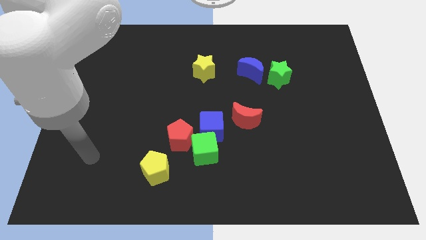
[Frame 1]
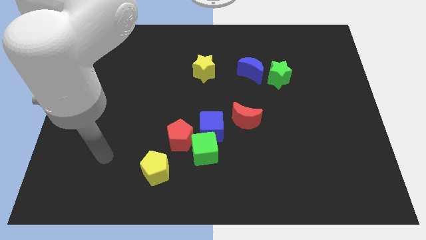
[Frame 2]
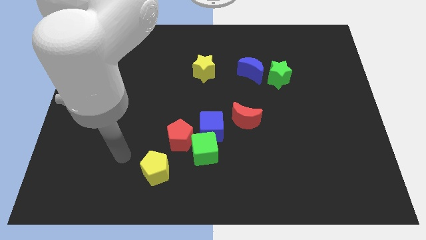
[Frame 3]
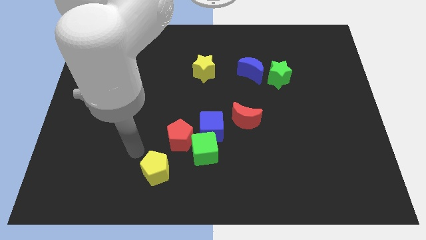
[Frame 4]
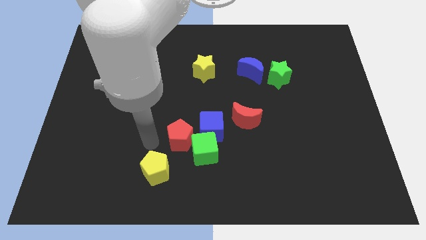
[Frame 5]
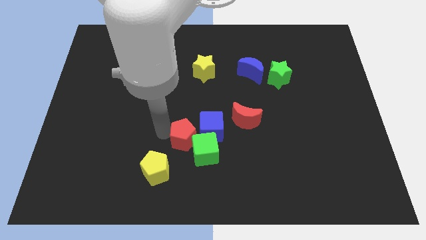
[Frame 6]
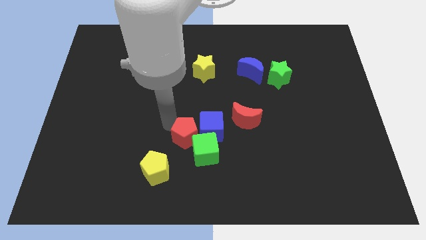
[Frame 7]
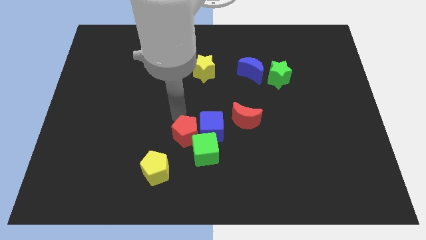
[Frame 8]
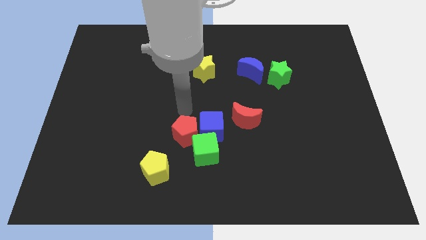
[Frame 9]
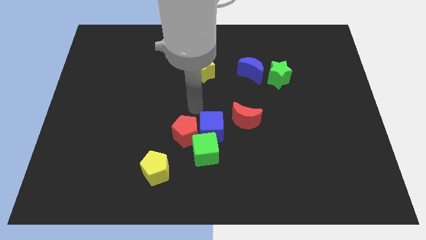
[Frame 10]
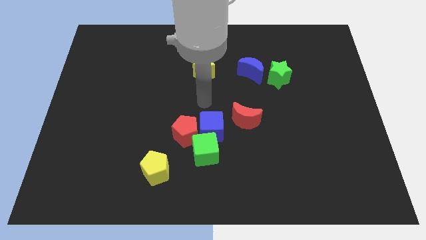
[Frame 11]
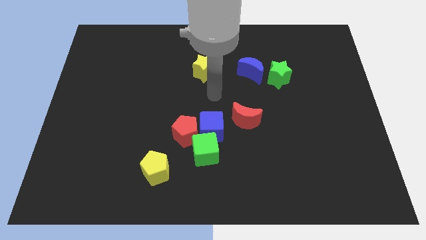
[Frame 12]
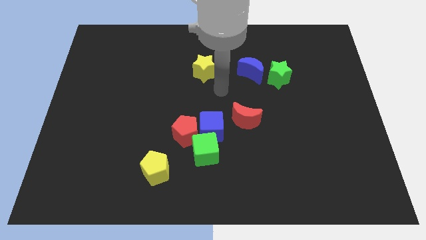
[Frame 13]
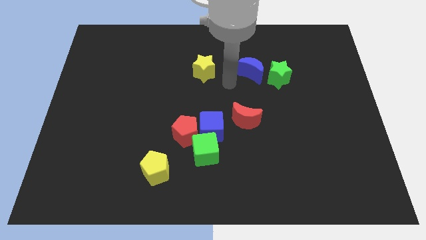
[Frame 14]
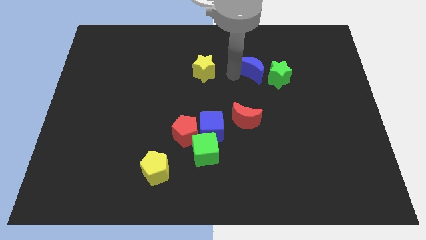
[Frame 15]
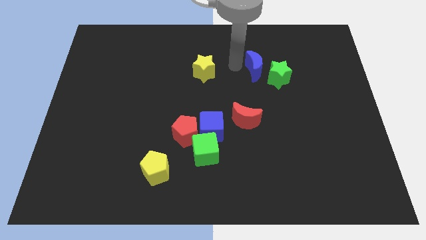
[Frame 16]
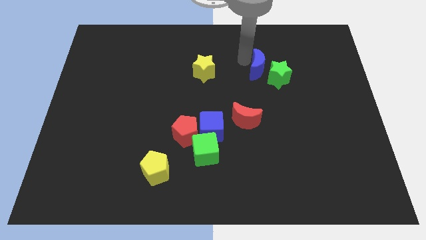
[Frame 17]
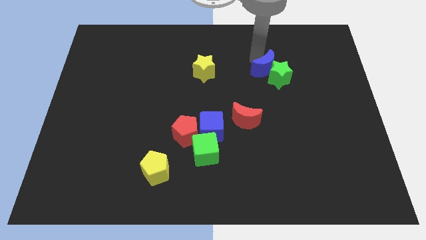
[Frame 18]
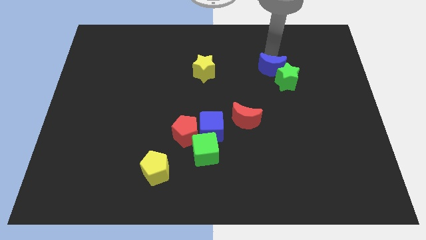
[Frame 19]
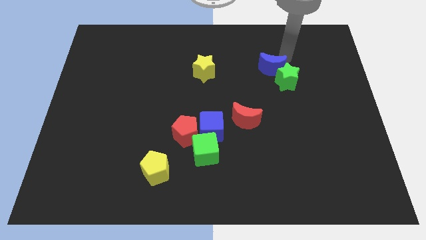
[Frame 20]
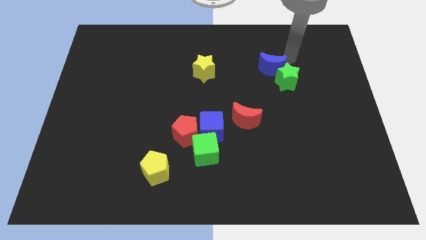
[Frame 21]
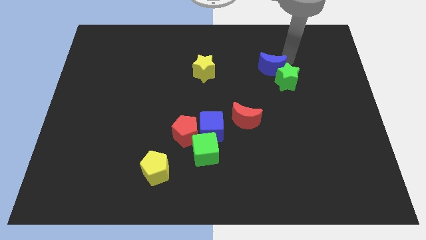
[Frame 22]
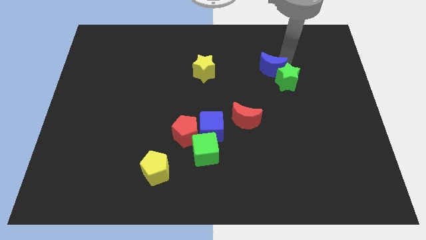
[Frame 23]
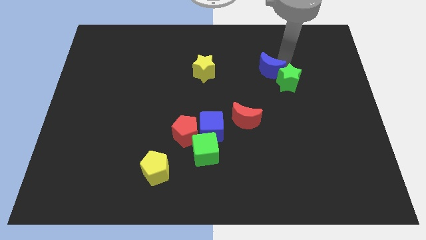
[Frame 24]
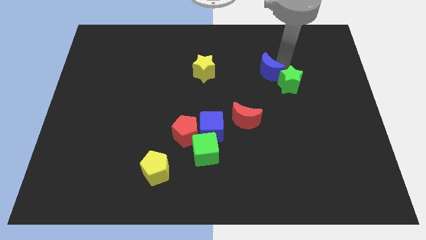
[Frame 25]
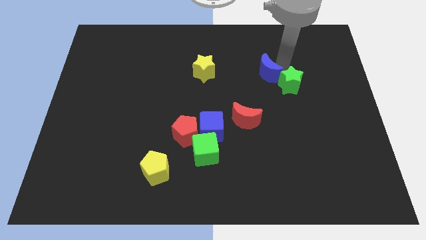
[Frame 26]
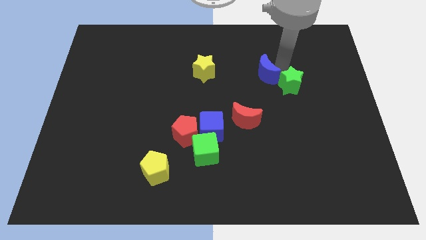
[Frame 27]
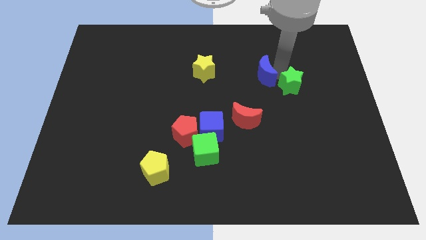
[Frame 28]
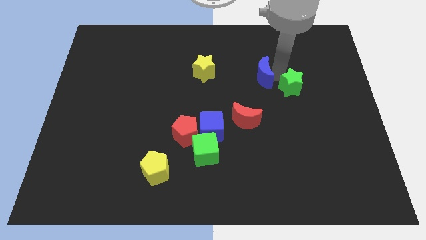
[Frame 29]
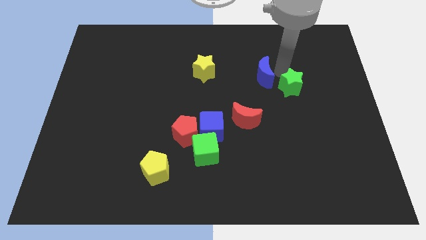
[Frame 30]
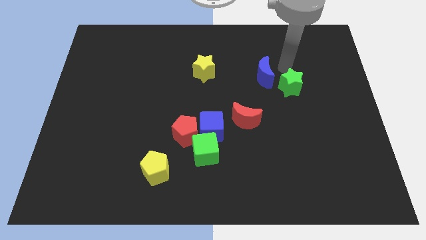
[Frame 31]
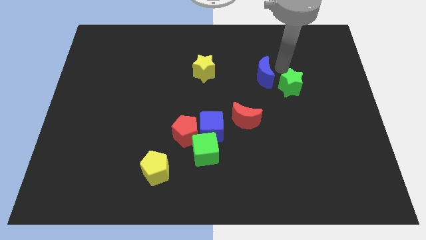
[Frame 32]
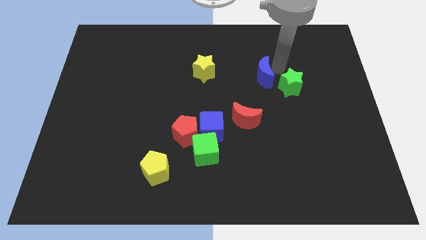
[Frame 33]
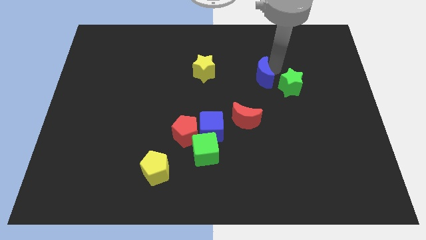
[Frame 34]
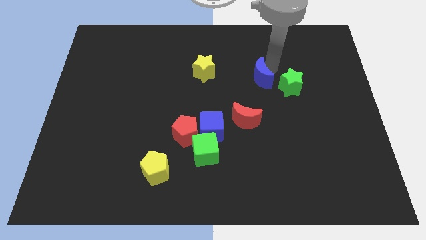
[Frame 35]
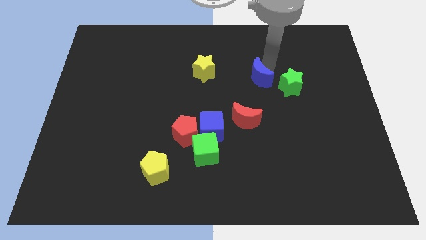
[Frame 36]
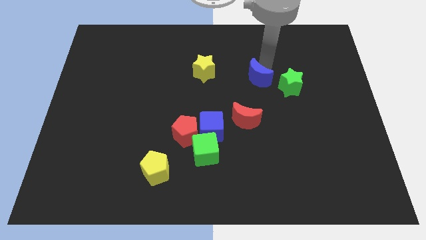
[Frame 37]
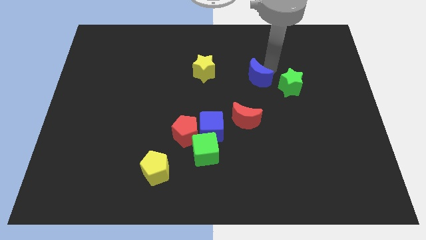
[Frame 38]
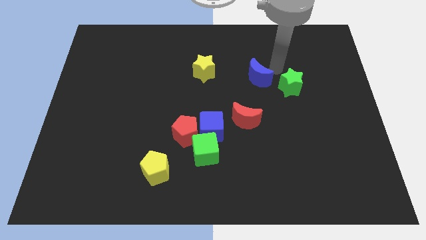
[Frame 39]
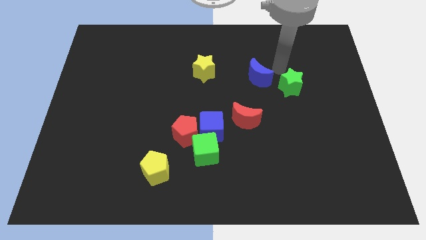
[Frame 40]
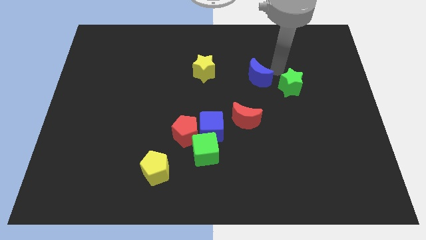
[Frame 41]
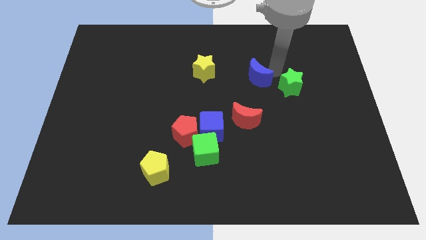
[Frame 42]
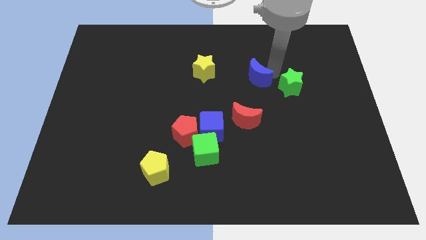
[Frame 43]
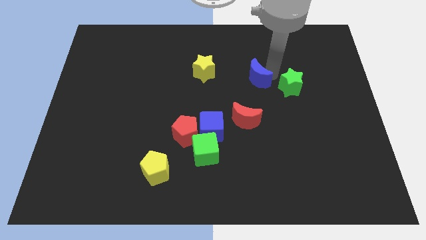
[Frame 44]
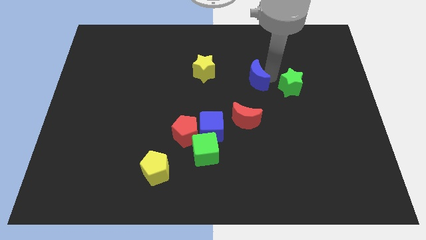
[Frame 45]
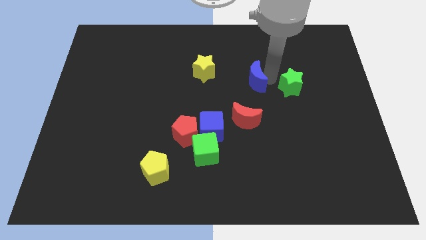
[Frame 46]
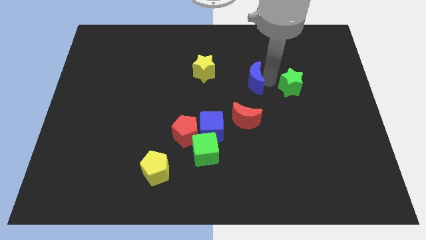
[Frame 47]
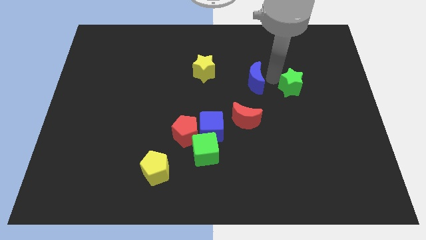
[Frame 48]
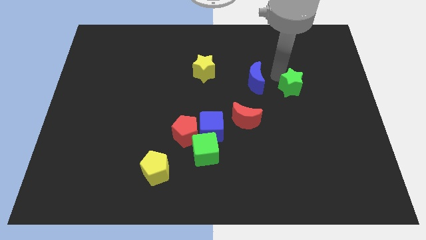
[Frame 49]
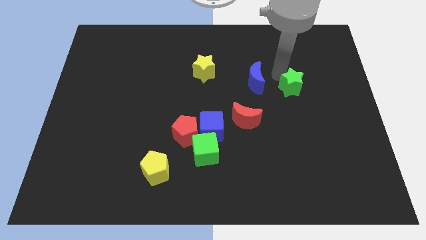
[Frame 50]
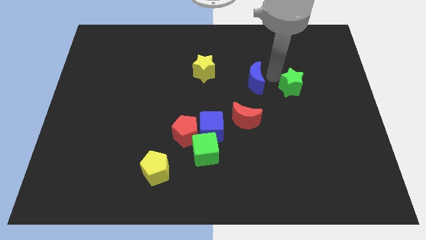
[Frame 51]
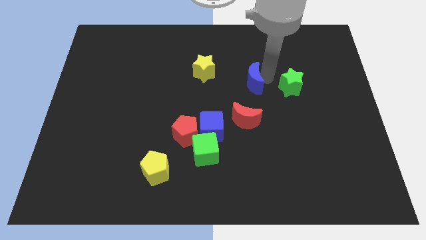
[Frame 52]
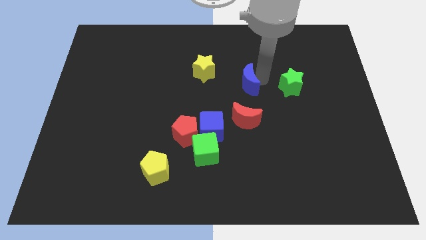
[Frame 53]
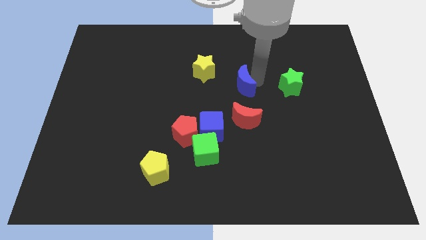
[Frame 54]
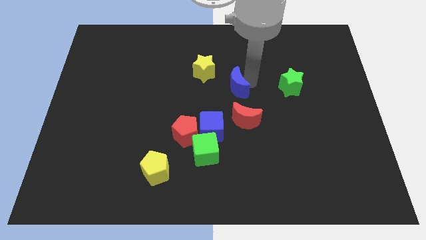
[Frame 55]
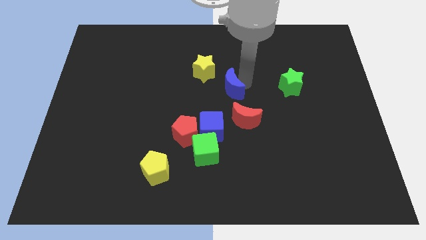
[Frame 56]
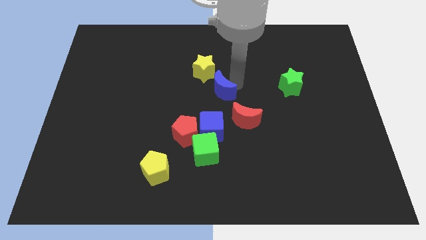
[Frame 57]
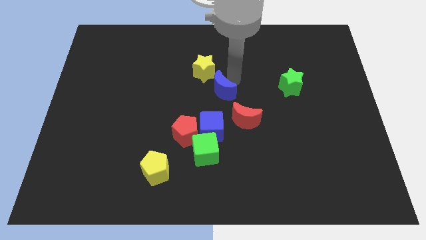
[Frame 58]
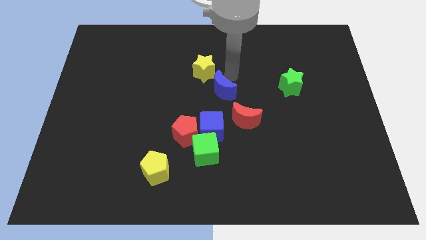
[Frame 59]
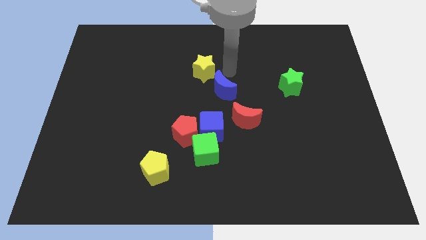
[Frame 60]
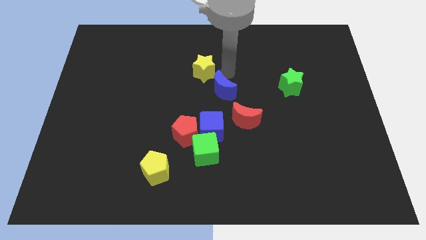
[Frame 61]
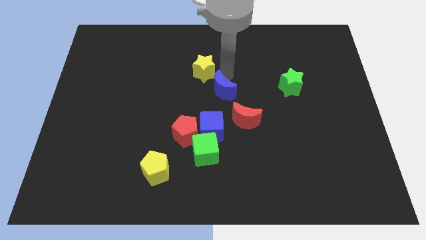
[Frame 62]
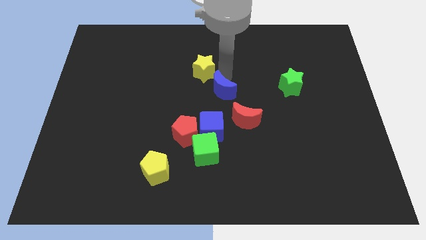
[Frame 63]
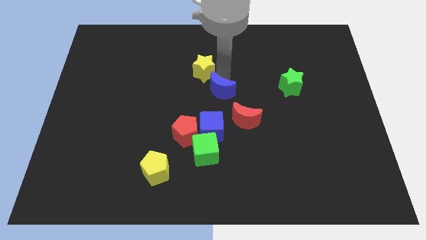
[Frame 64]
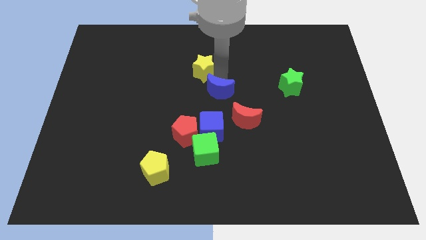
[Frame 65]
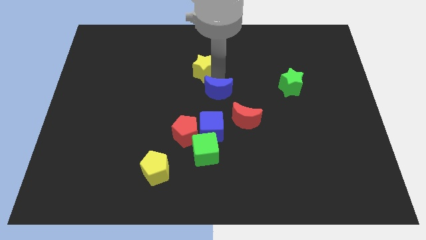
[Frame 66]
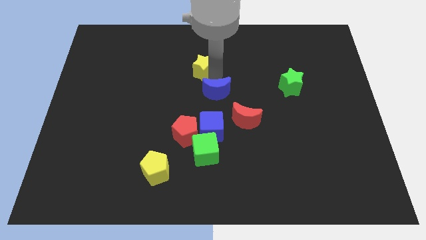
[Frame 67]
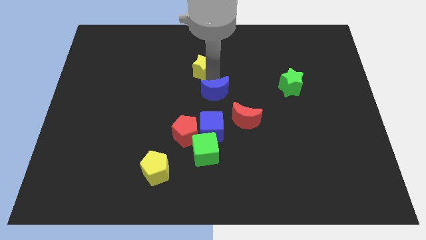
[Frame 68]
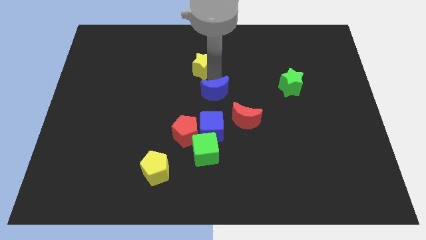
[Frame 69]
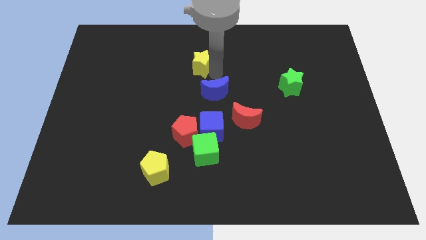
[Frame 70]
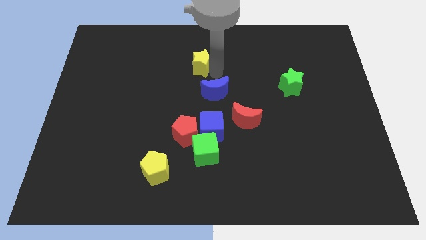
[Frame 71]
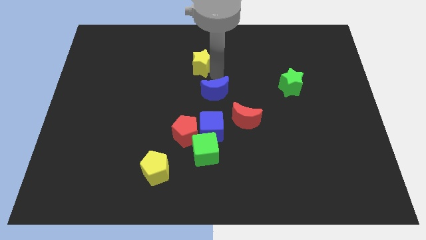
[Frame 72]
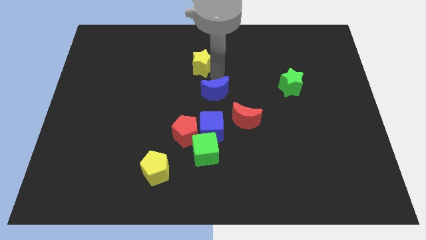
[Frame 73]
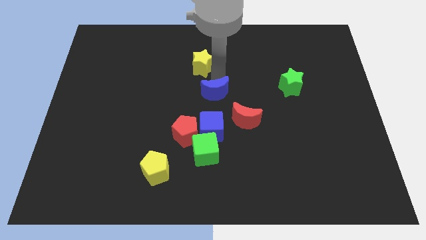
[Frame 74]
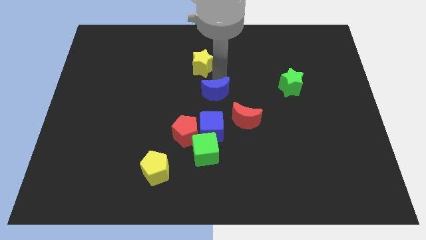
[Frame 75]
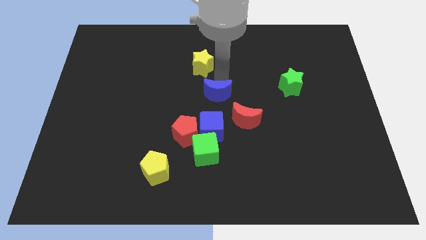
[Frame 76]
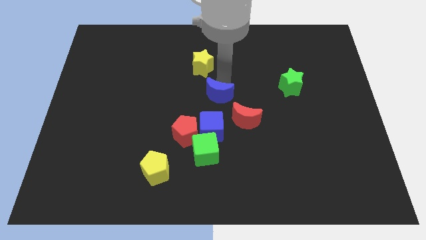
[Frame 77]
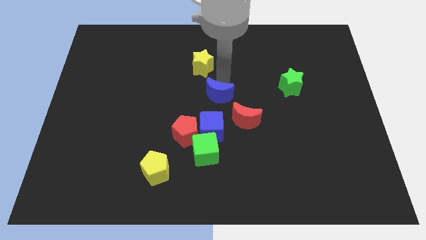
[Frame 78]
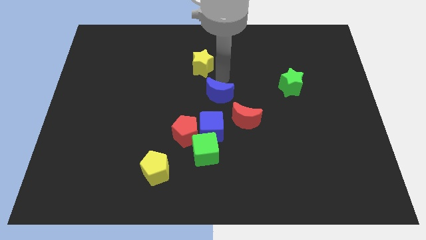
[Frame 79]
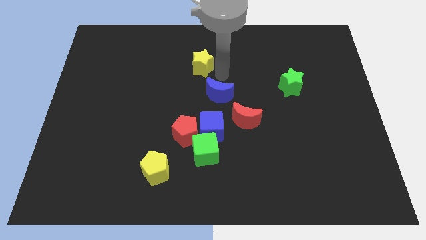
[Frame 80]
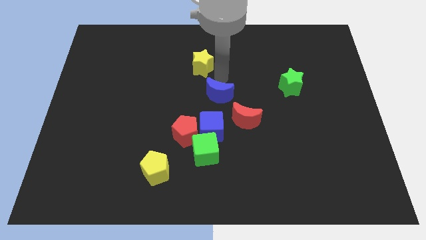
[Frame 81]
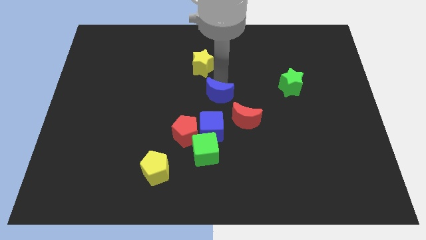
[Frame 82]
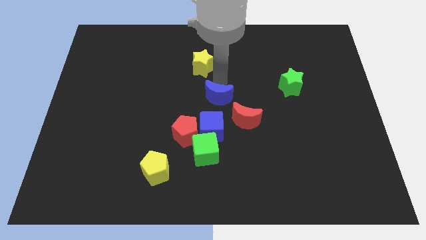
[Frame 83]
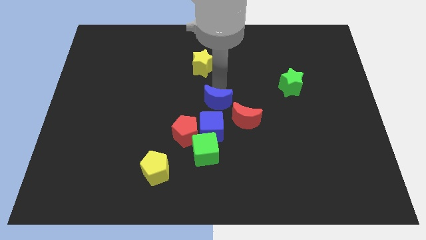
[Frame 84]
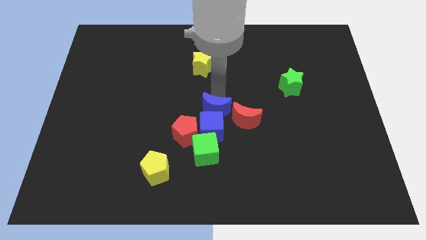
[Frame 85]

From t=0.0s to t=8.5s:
push the blue moon close to the blue cube
